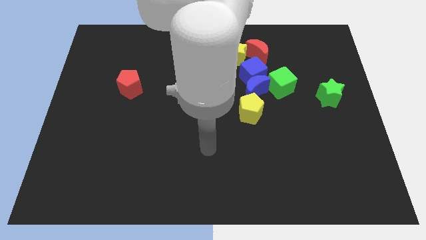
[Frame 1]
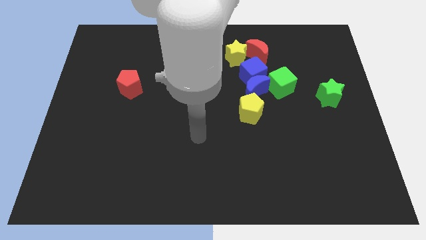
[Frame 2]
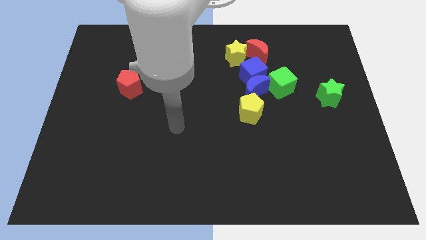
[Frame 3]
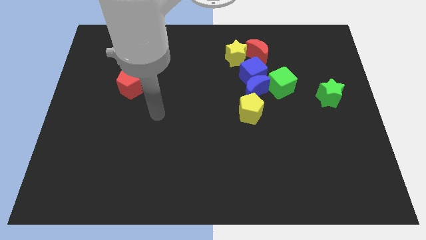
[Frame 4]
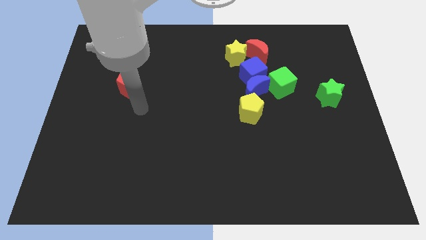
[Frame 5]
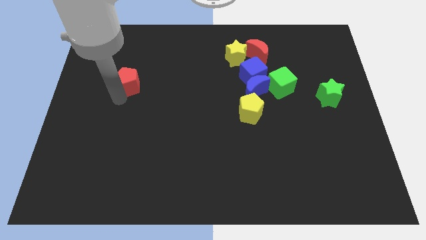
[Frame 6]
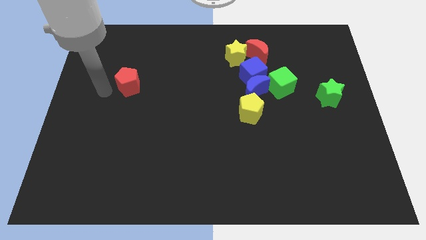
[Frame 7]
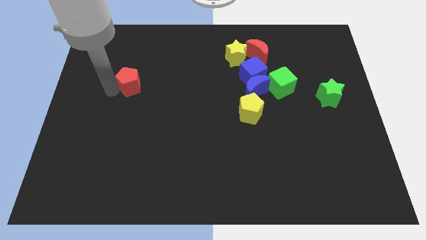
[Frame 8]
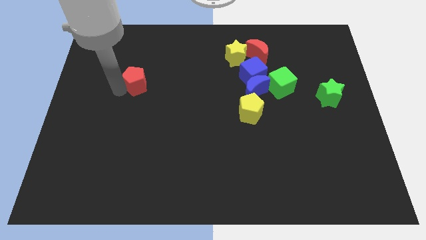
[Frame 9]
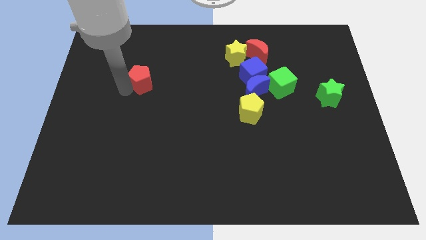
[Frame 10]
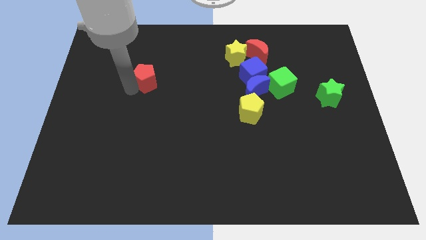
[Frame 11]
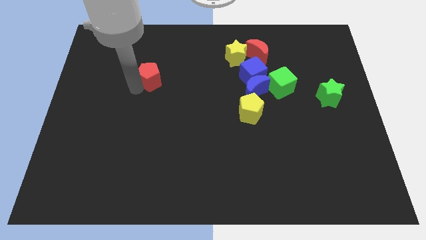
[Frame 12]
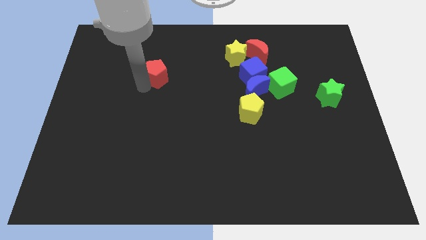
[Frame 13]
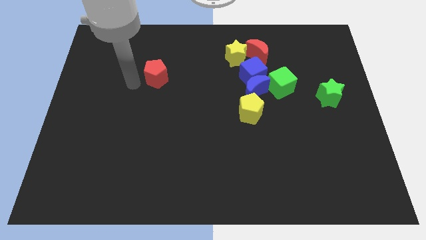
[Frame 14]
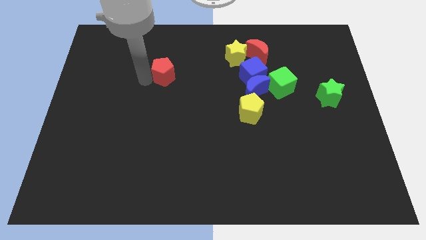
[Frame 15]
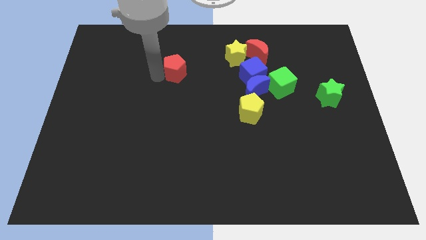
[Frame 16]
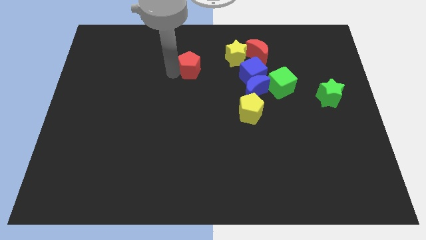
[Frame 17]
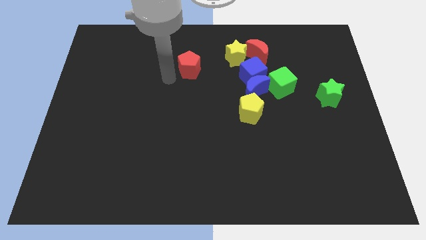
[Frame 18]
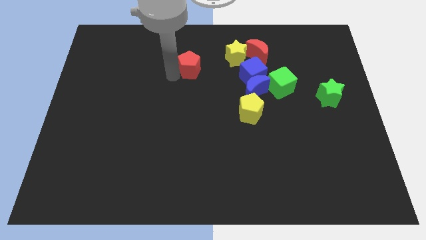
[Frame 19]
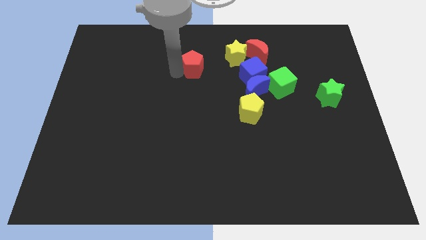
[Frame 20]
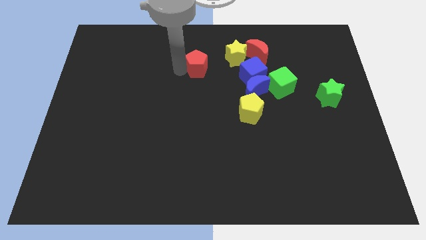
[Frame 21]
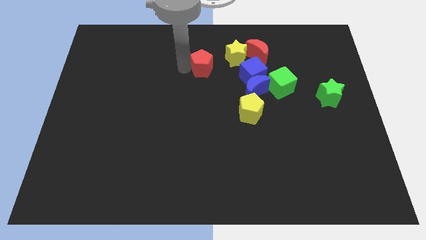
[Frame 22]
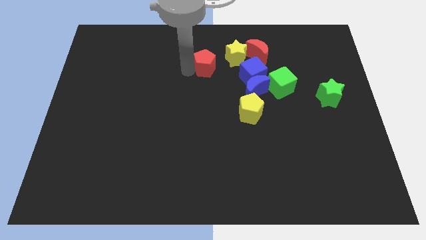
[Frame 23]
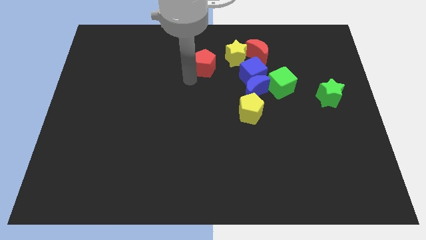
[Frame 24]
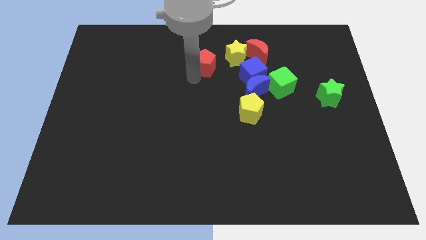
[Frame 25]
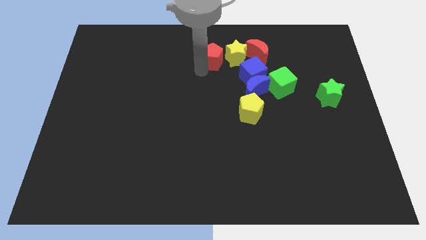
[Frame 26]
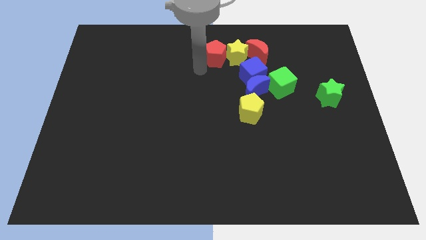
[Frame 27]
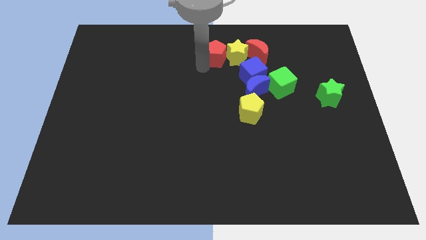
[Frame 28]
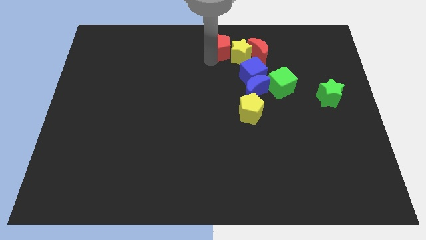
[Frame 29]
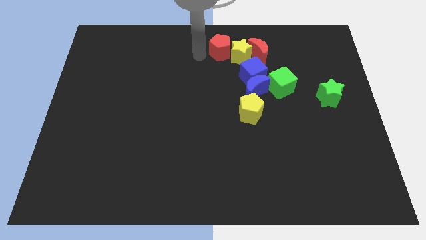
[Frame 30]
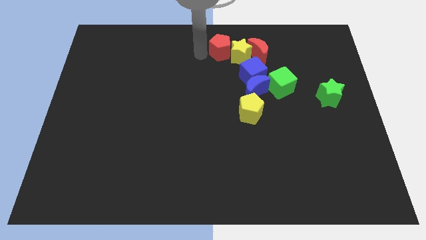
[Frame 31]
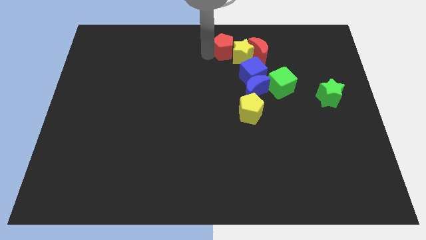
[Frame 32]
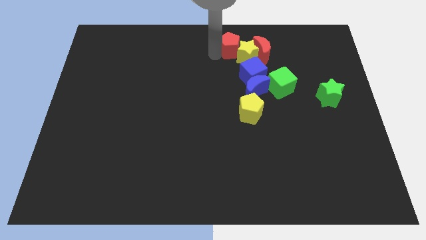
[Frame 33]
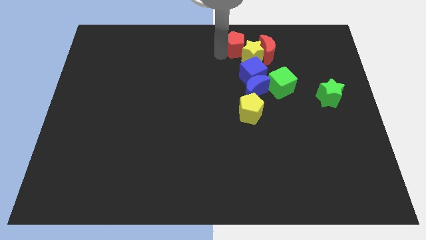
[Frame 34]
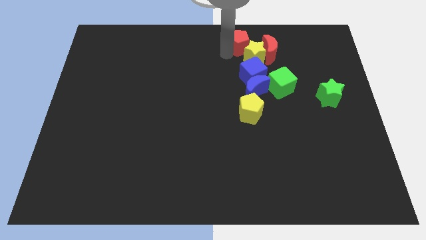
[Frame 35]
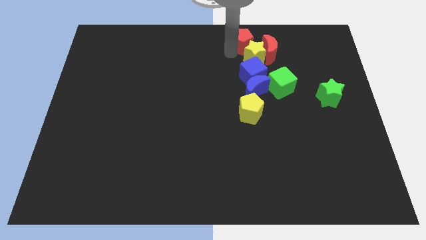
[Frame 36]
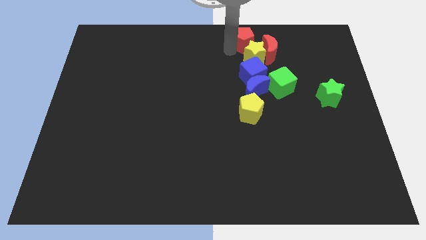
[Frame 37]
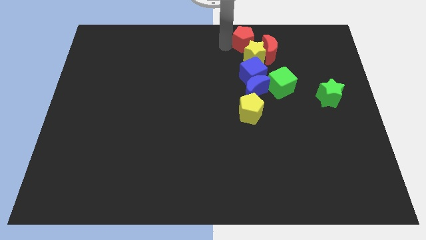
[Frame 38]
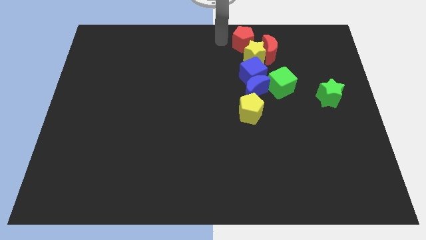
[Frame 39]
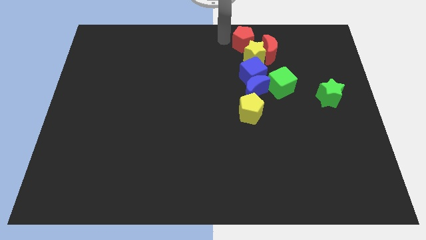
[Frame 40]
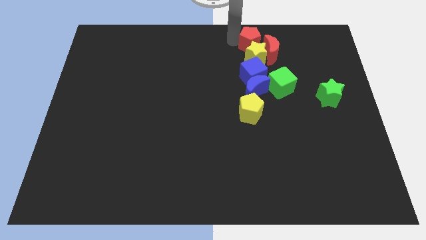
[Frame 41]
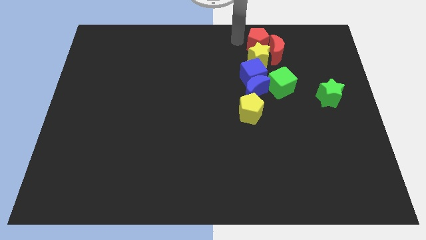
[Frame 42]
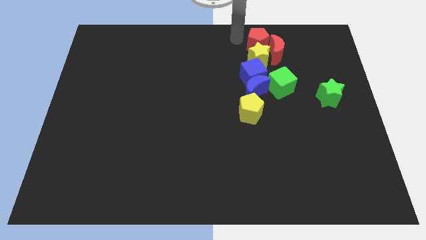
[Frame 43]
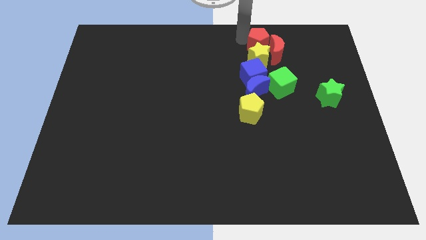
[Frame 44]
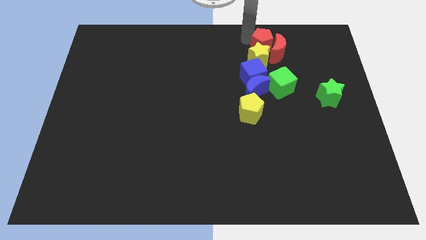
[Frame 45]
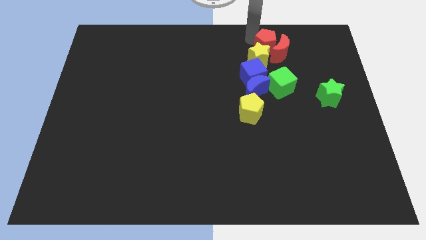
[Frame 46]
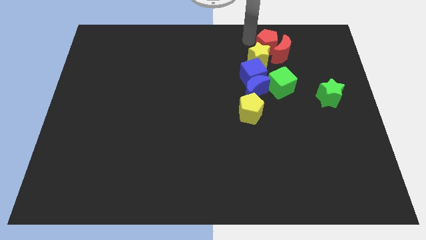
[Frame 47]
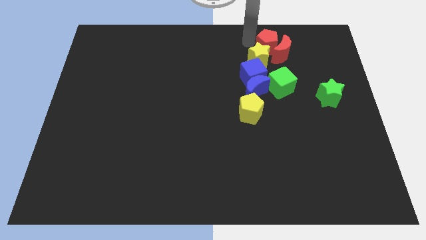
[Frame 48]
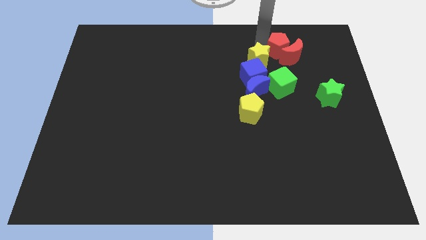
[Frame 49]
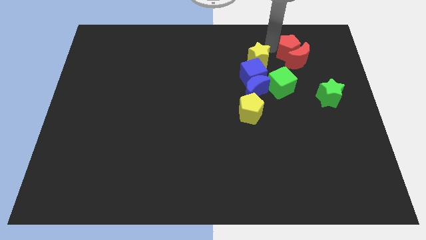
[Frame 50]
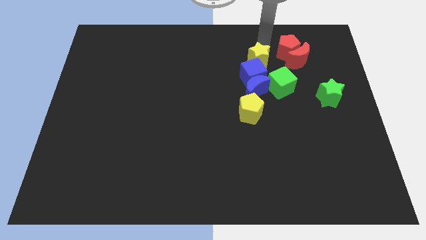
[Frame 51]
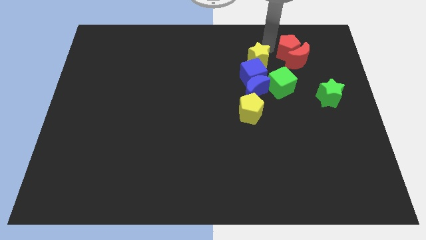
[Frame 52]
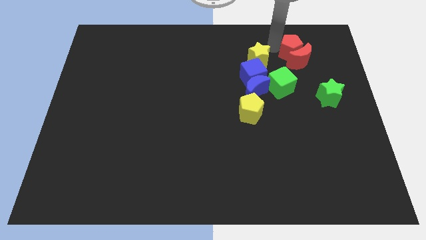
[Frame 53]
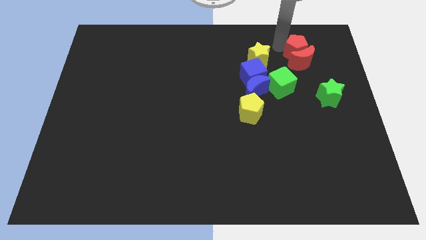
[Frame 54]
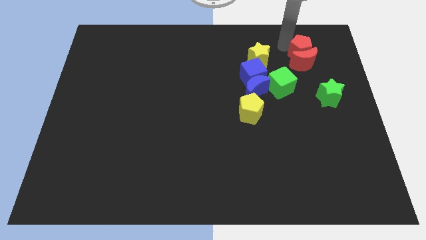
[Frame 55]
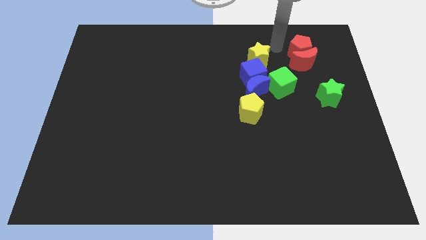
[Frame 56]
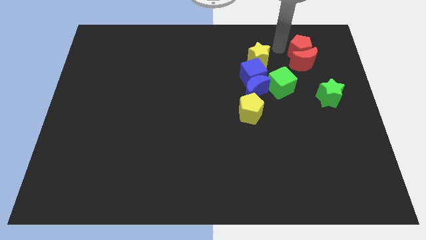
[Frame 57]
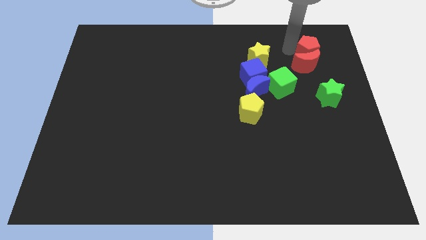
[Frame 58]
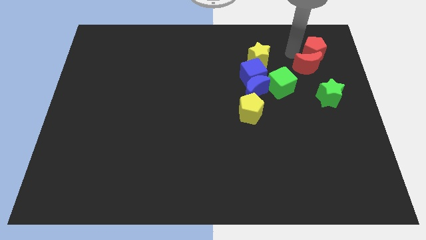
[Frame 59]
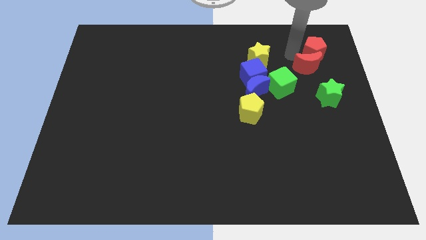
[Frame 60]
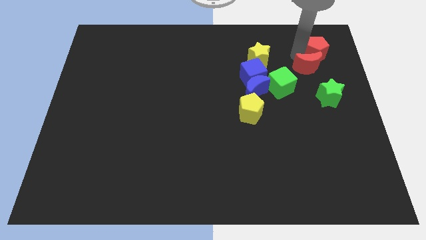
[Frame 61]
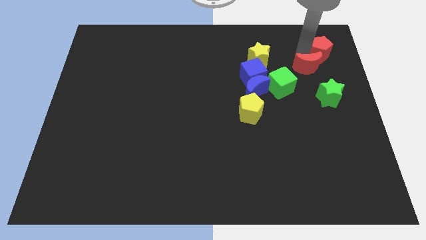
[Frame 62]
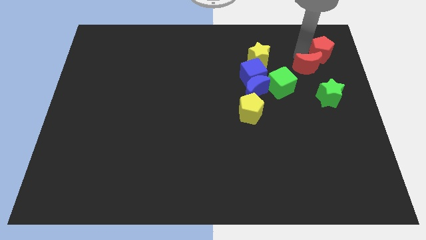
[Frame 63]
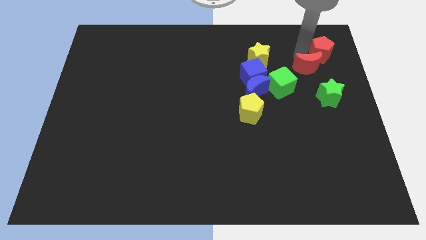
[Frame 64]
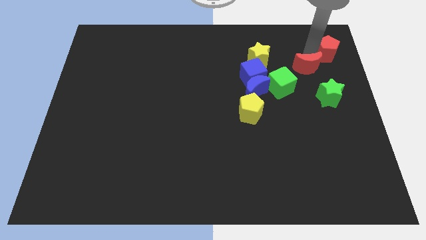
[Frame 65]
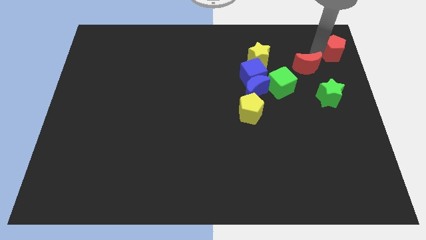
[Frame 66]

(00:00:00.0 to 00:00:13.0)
push the red pentagon to the upper right corner
